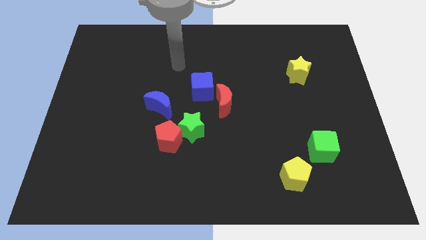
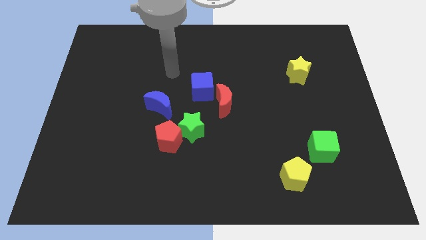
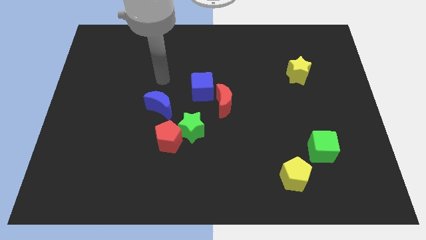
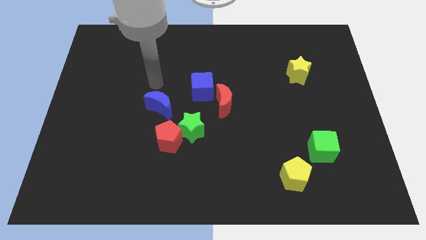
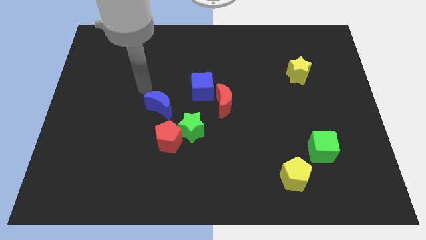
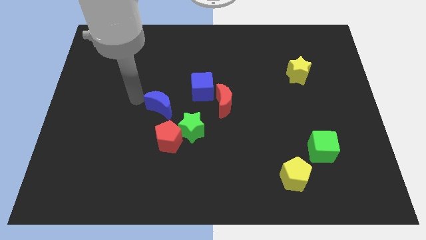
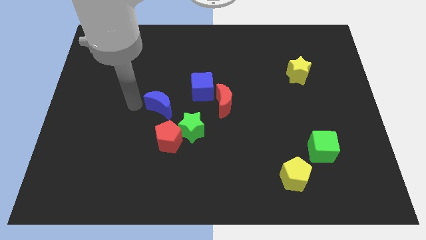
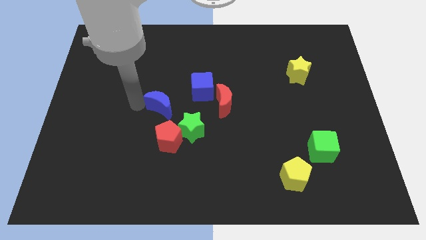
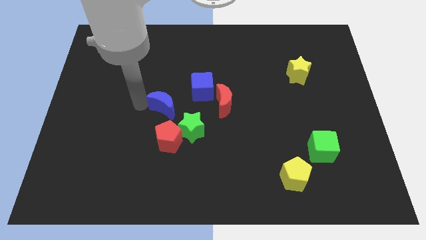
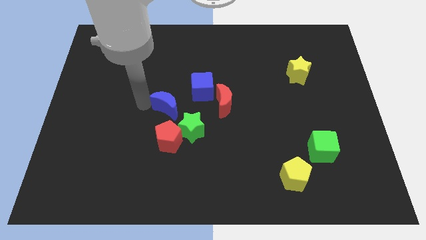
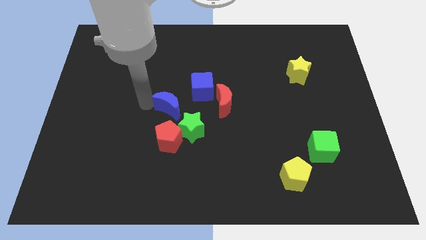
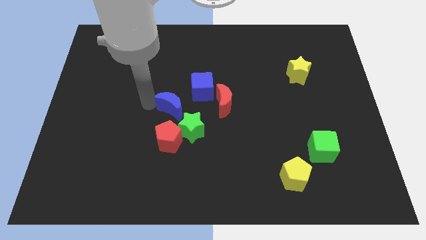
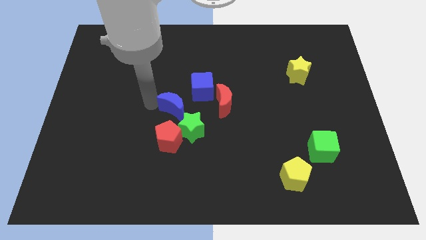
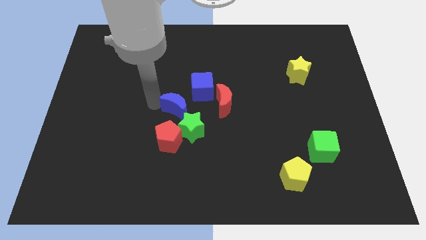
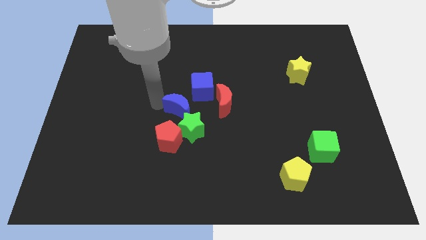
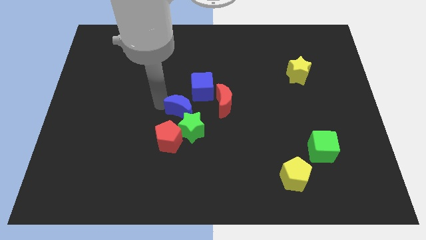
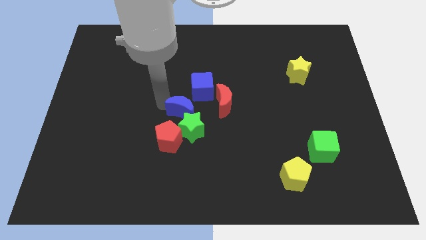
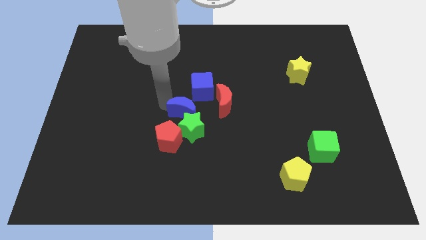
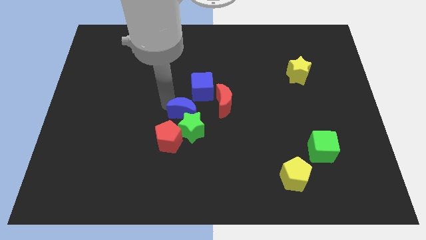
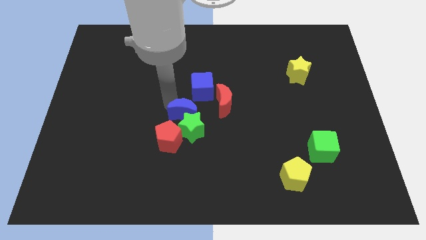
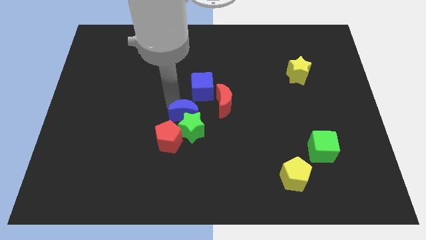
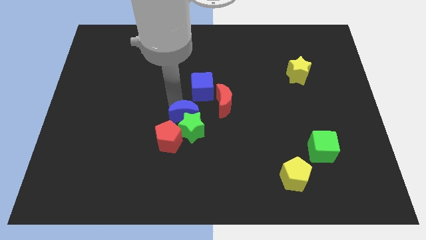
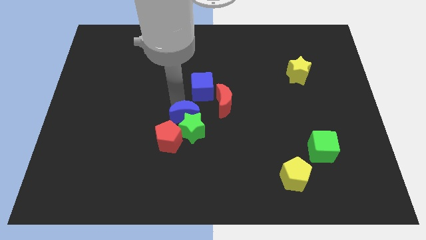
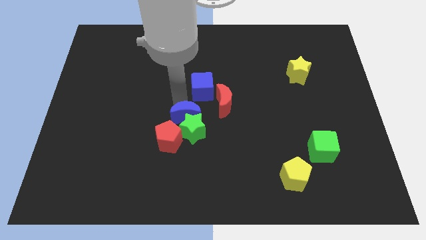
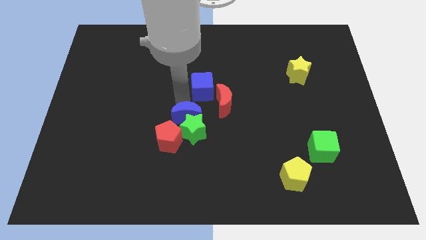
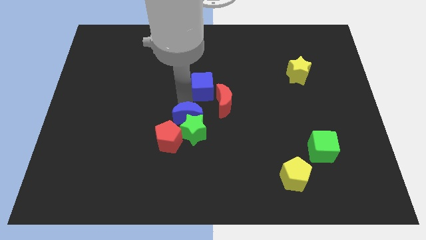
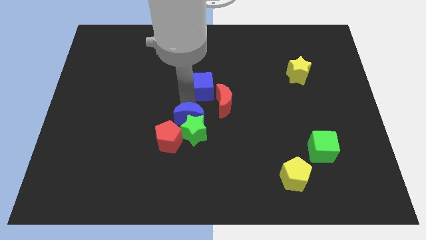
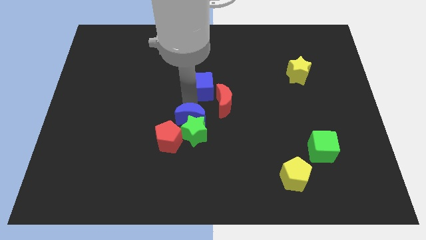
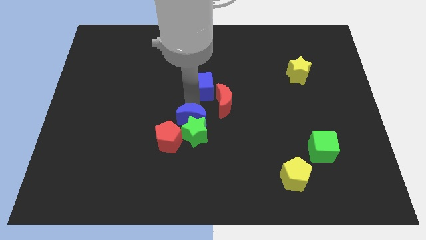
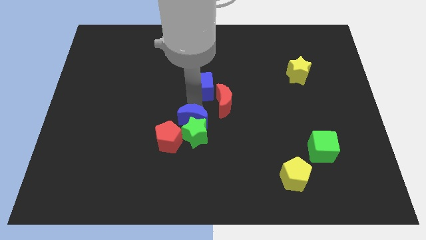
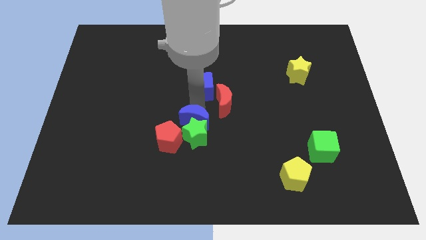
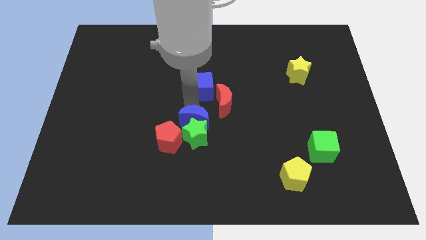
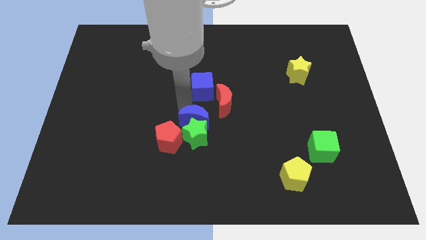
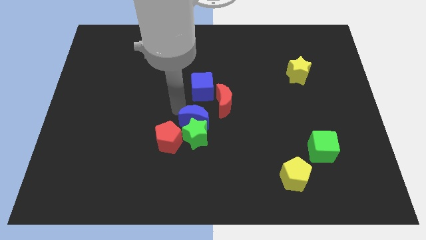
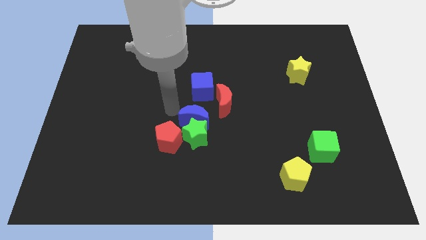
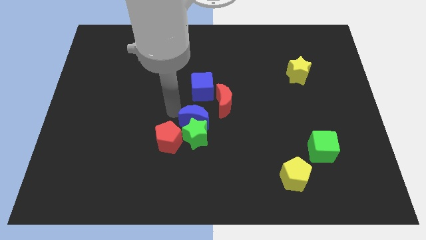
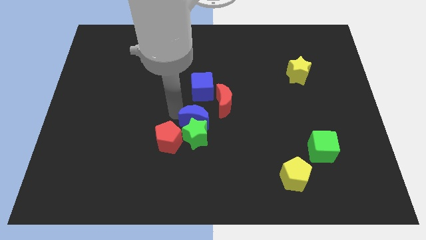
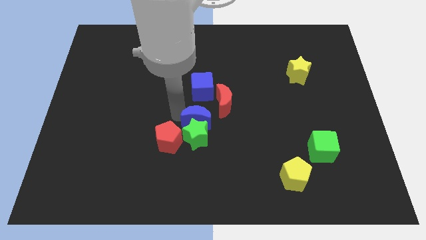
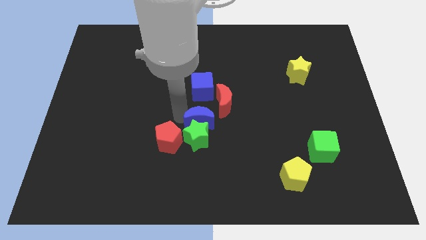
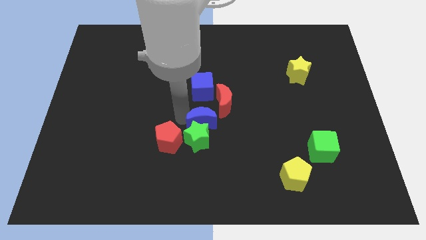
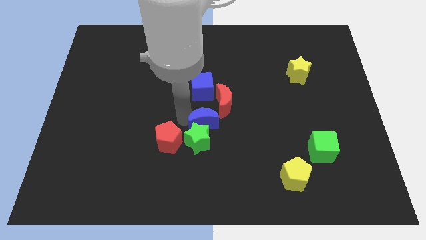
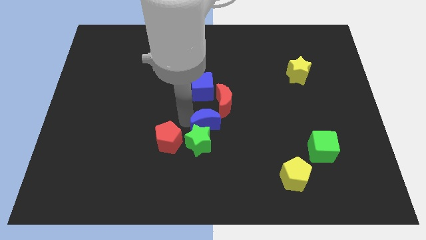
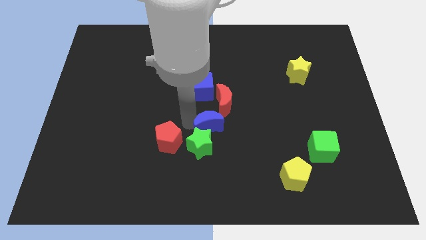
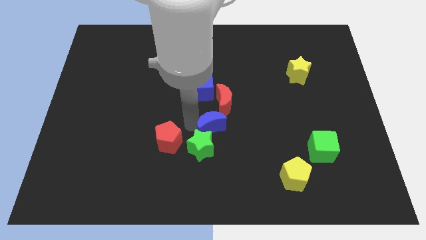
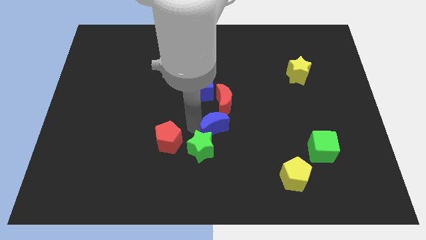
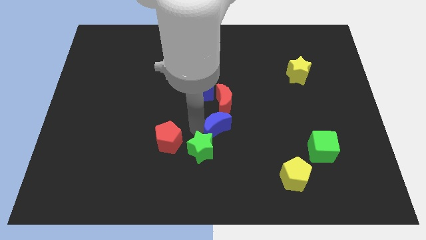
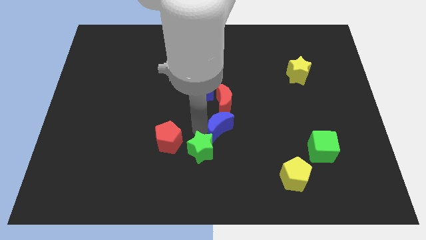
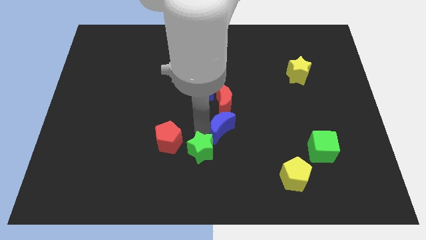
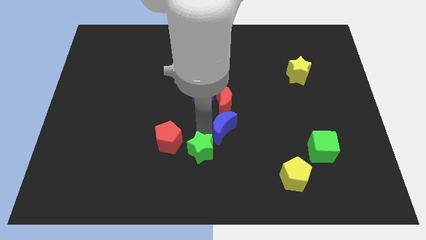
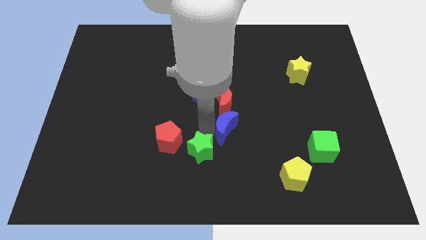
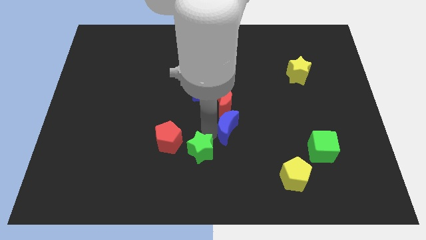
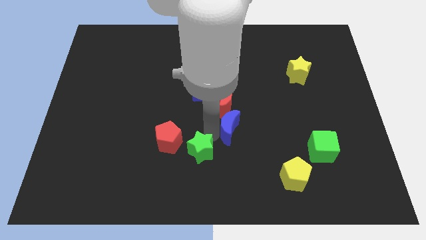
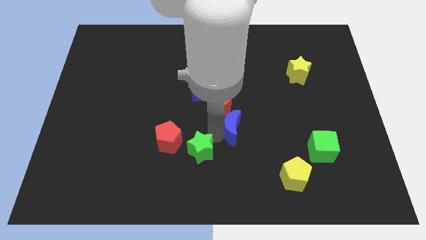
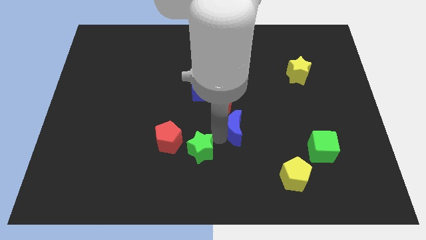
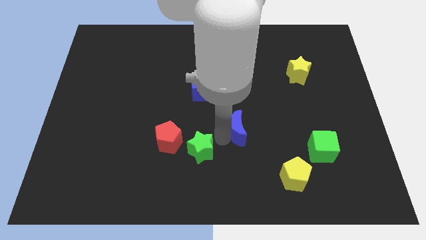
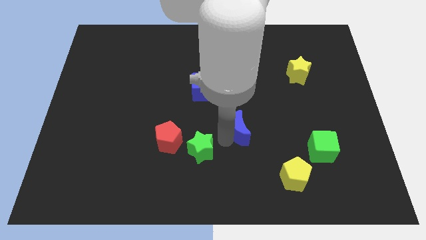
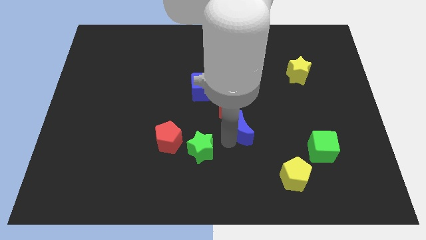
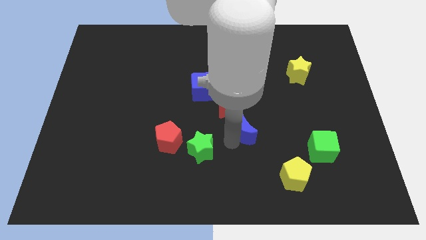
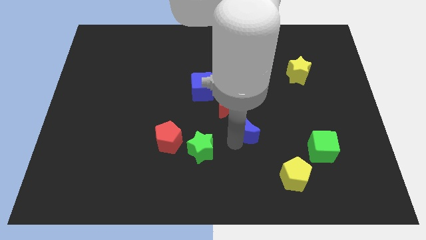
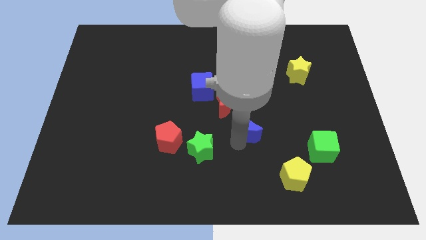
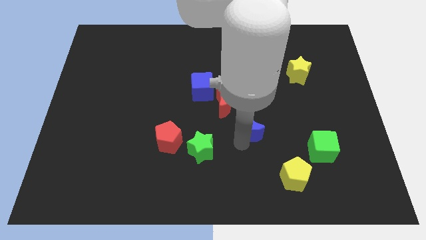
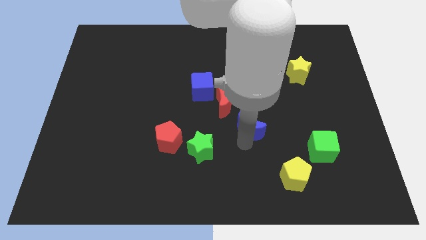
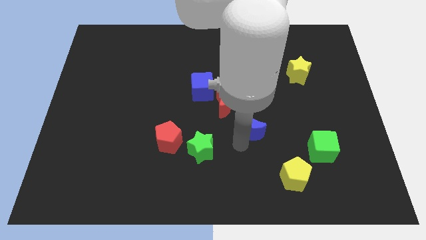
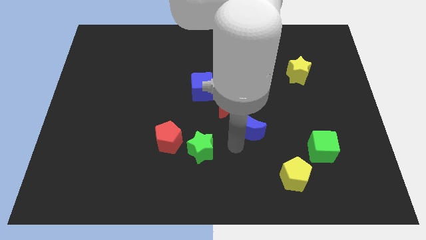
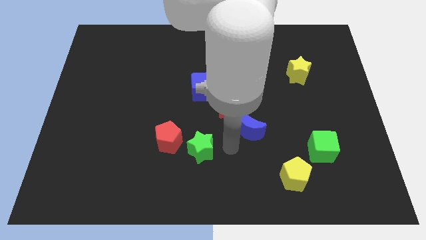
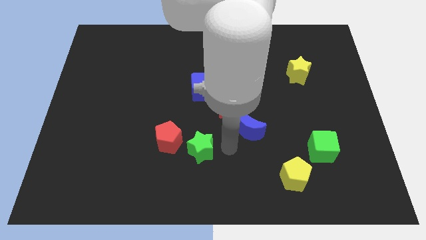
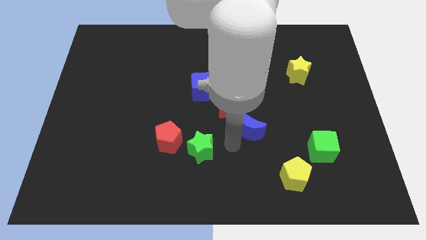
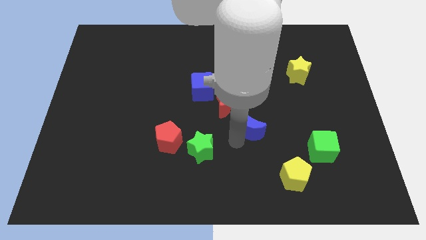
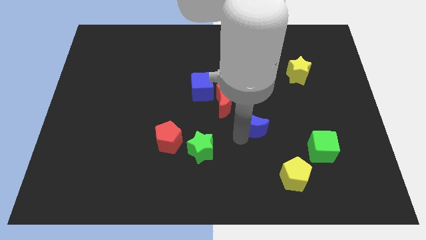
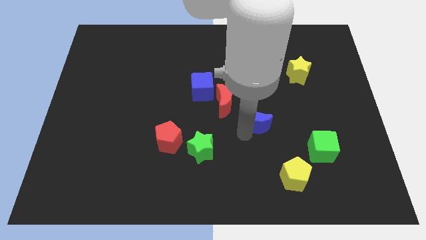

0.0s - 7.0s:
push the blue moon right

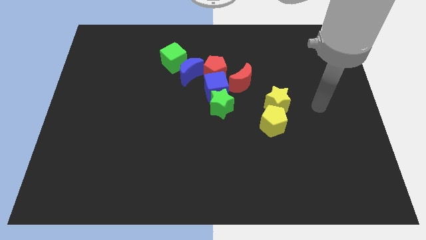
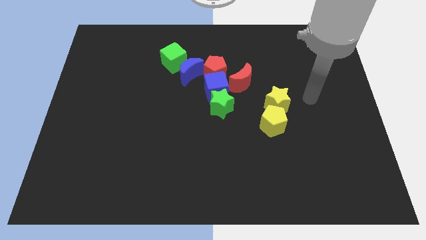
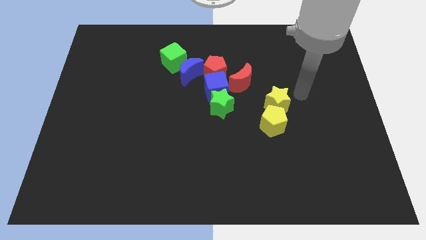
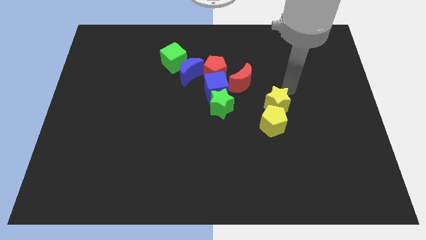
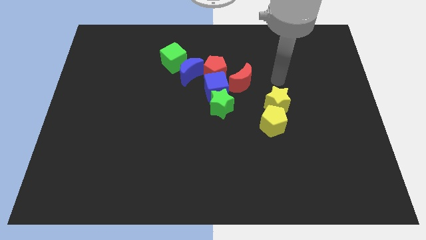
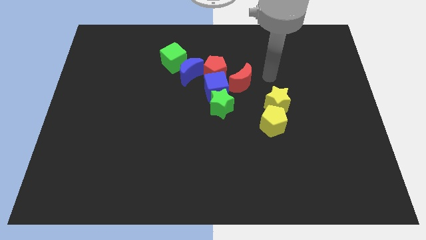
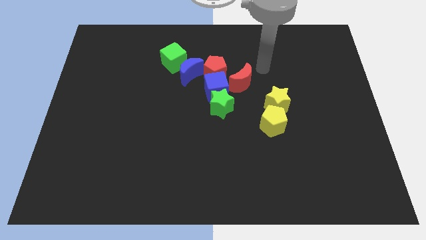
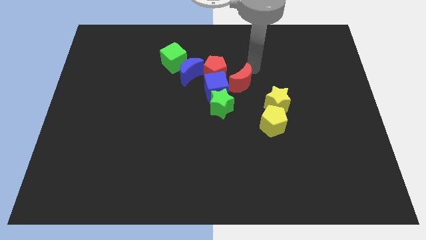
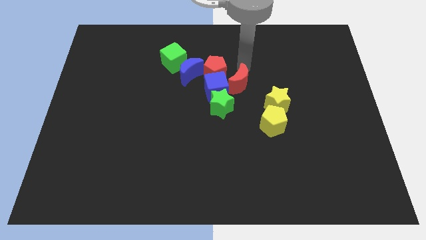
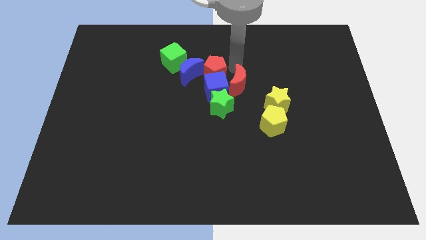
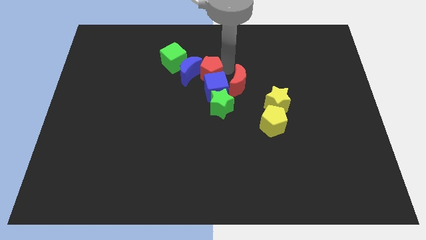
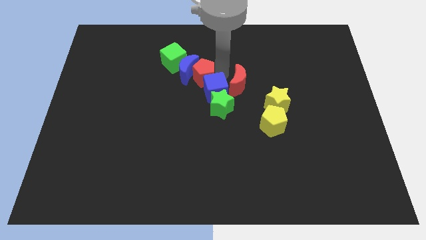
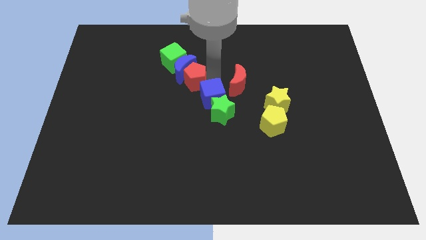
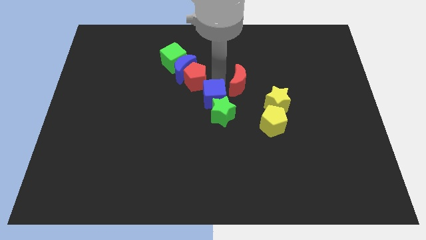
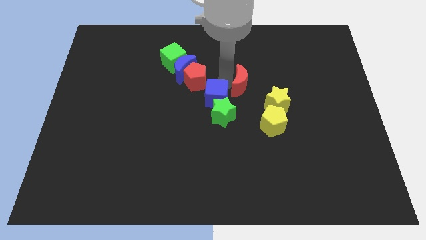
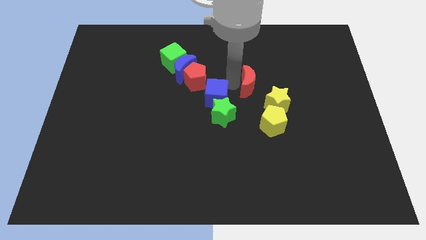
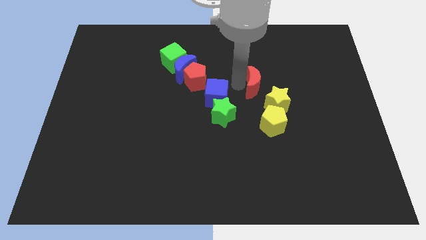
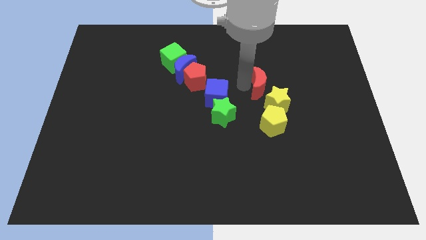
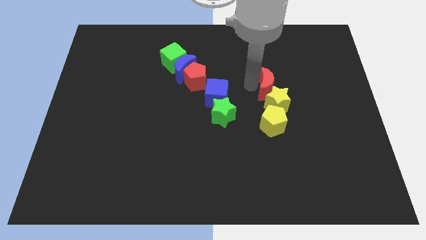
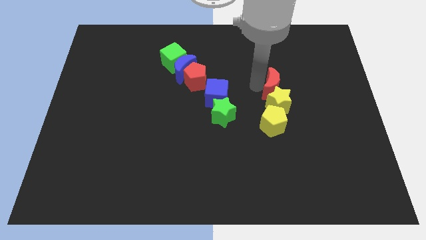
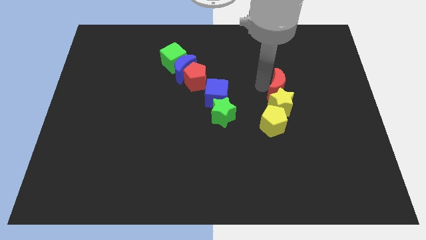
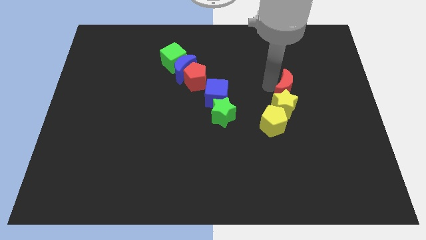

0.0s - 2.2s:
slightly slide the red moon down and right diagonally
